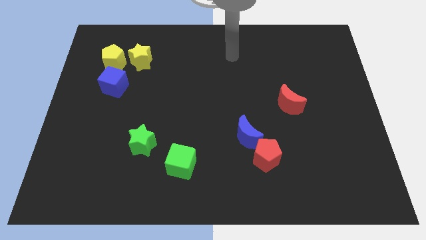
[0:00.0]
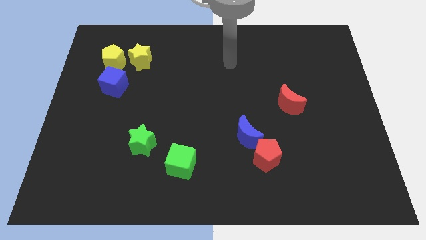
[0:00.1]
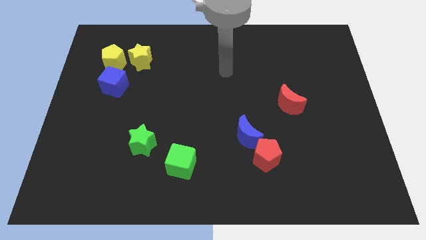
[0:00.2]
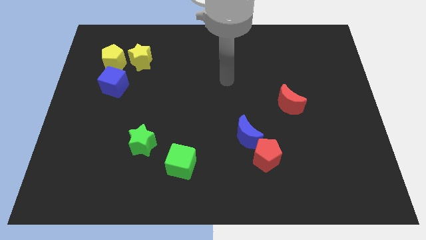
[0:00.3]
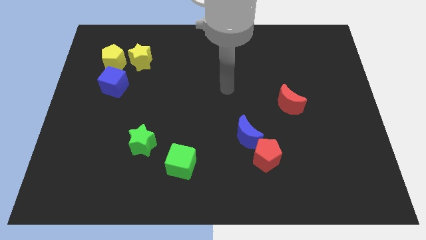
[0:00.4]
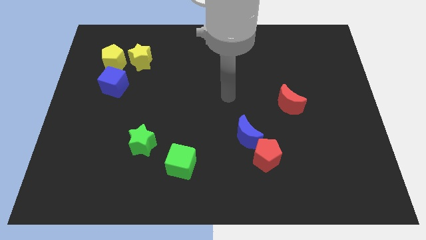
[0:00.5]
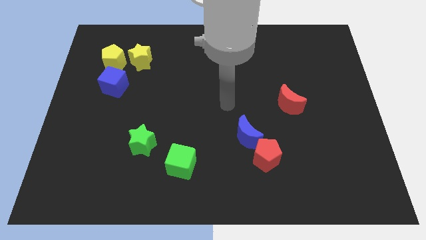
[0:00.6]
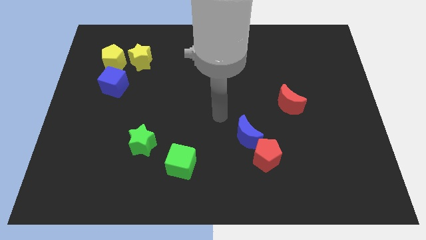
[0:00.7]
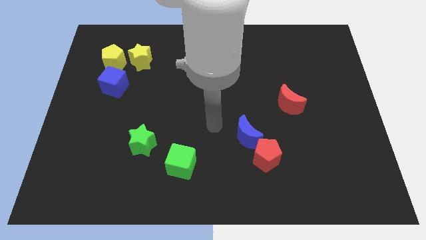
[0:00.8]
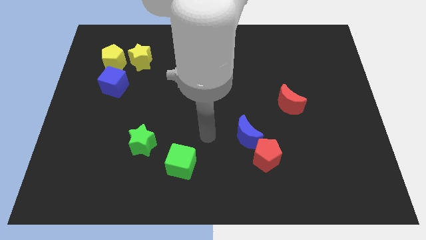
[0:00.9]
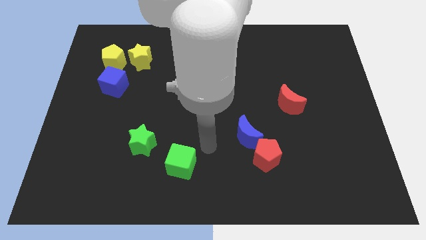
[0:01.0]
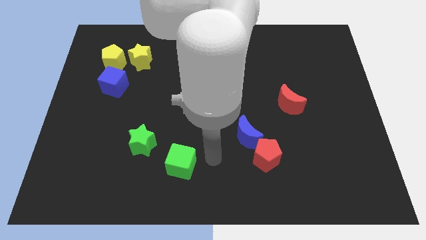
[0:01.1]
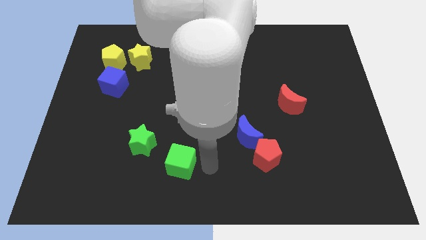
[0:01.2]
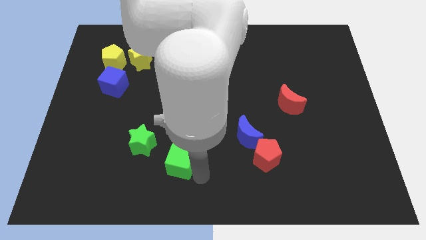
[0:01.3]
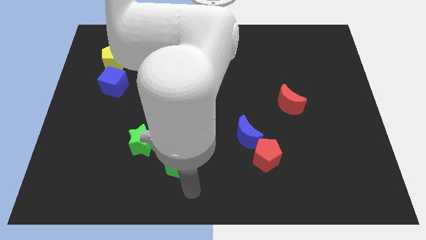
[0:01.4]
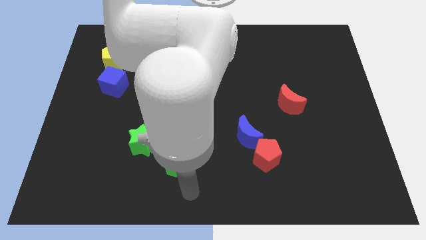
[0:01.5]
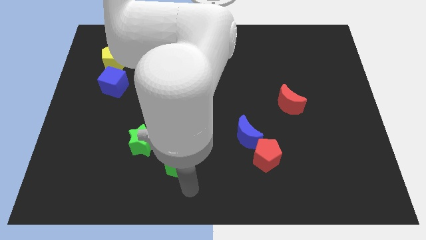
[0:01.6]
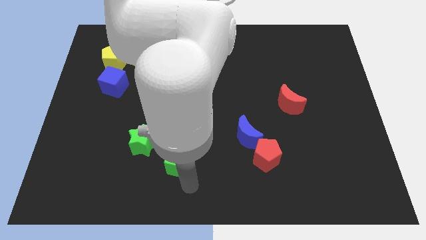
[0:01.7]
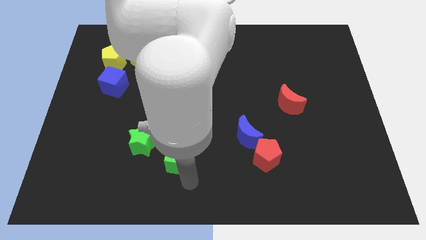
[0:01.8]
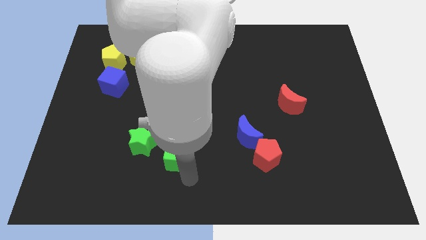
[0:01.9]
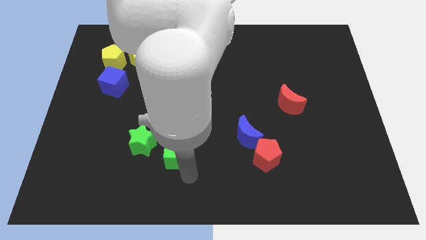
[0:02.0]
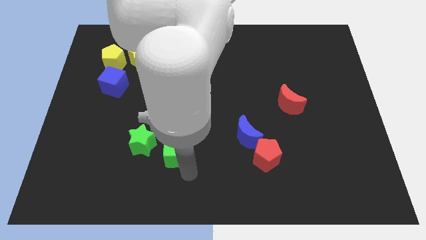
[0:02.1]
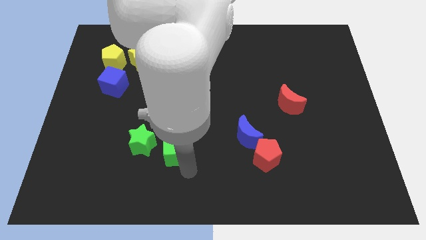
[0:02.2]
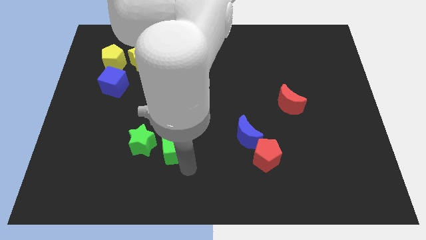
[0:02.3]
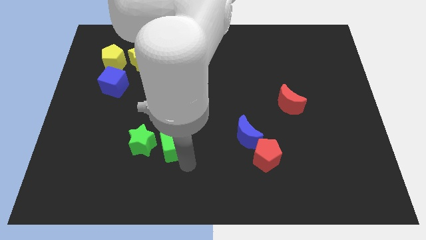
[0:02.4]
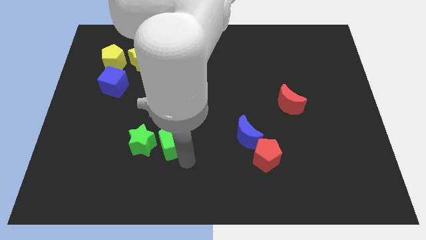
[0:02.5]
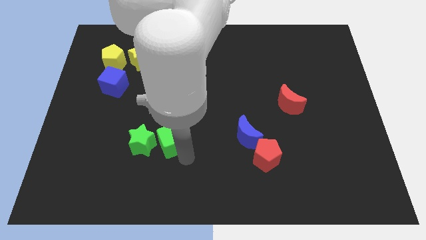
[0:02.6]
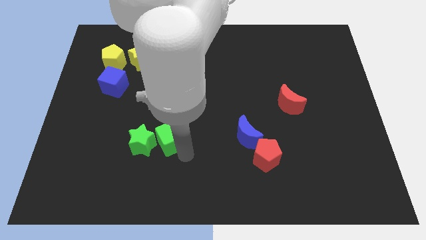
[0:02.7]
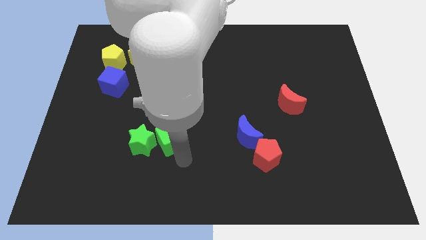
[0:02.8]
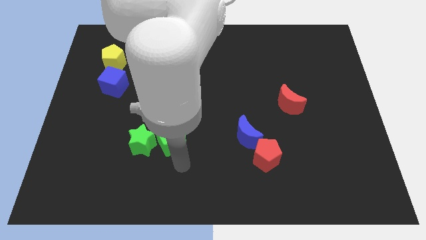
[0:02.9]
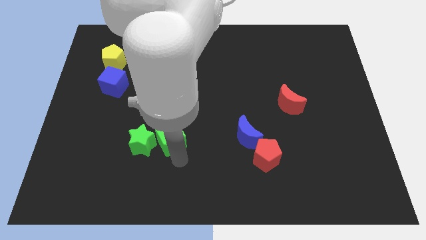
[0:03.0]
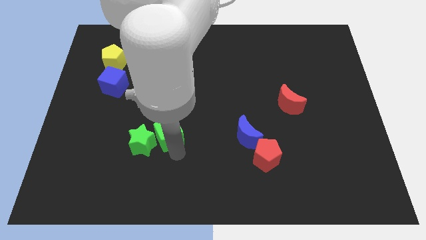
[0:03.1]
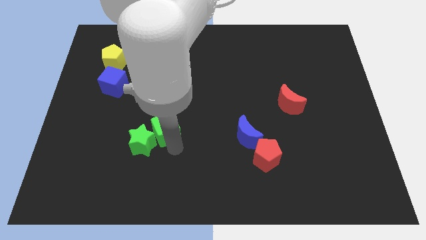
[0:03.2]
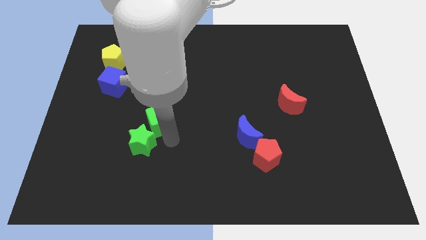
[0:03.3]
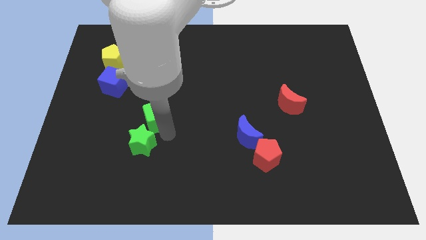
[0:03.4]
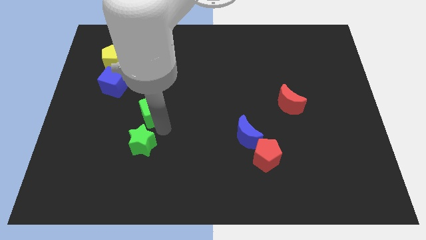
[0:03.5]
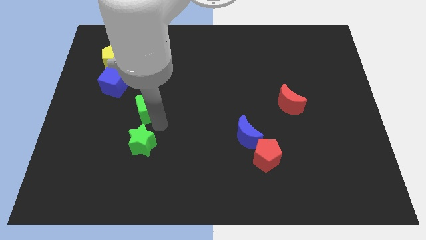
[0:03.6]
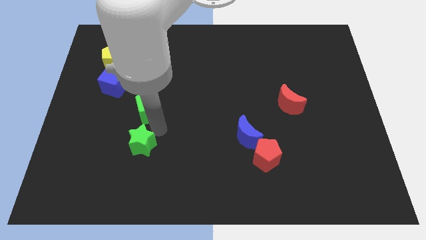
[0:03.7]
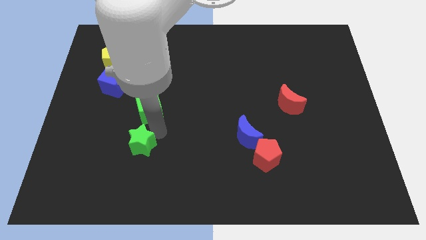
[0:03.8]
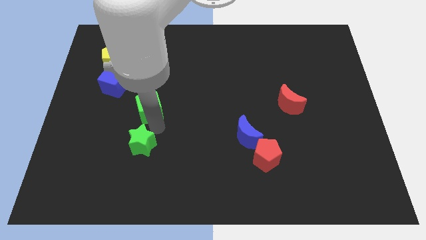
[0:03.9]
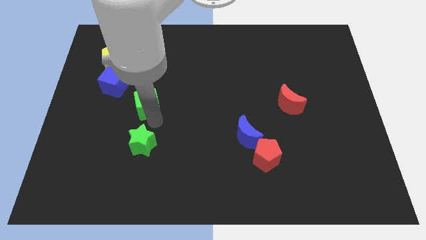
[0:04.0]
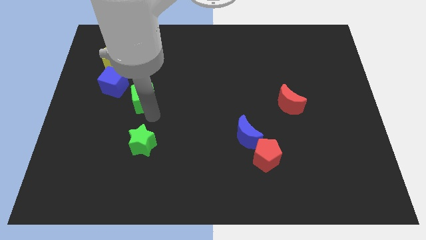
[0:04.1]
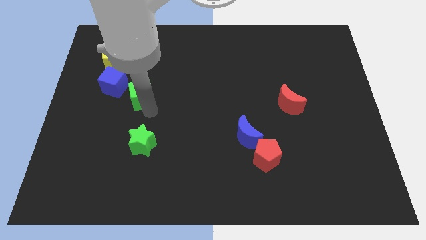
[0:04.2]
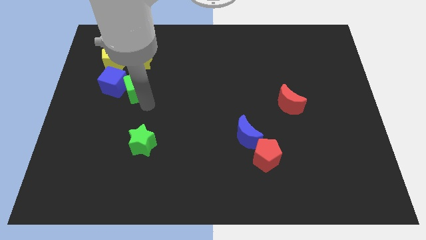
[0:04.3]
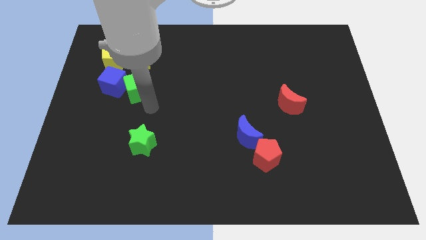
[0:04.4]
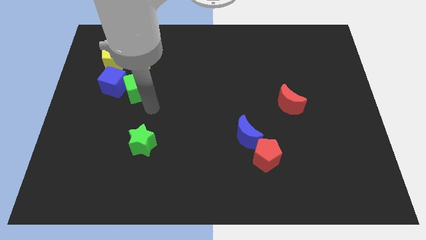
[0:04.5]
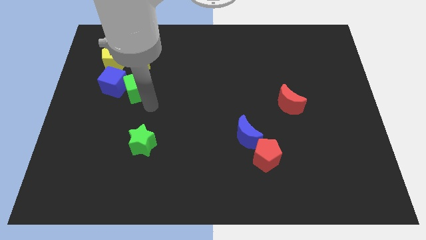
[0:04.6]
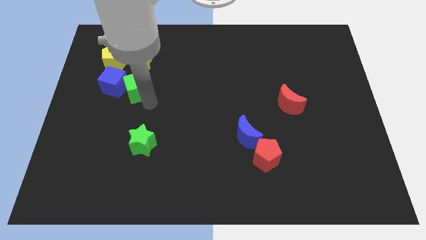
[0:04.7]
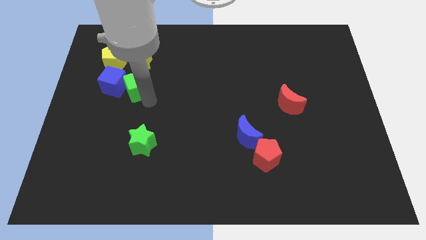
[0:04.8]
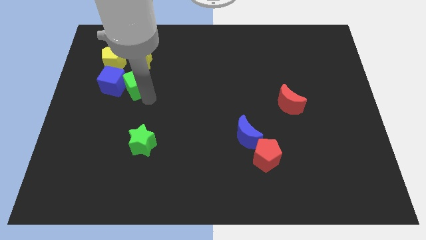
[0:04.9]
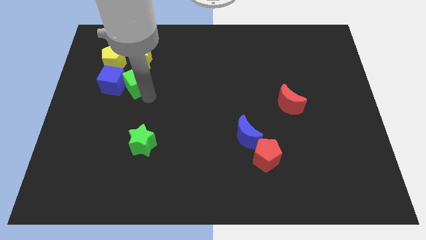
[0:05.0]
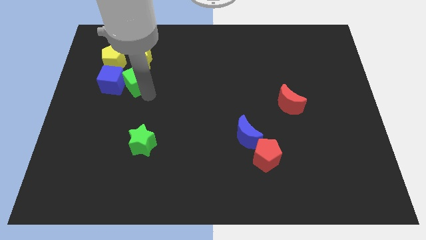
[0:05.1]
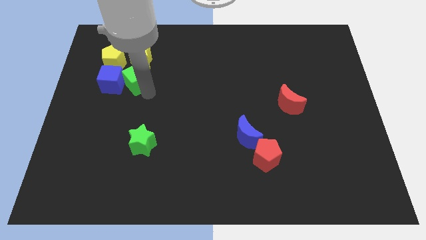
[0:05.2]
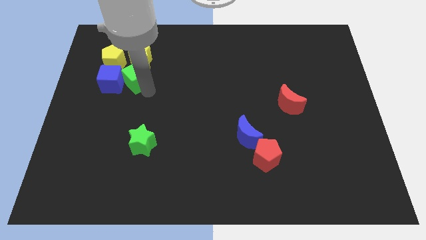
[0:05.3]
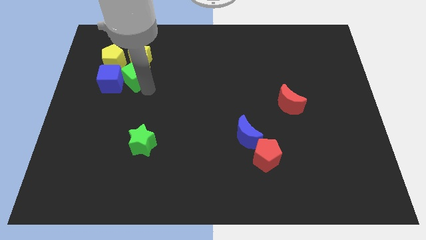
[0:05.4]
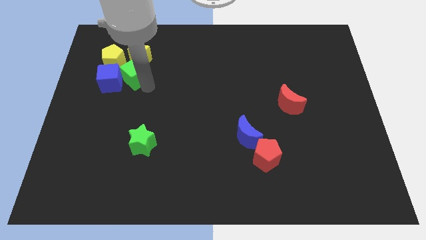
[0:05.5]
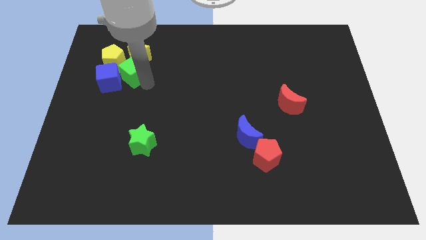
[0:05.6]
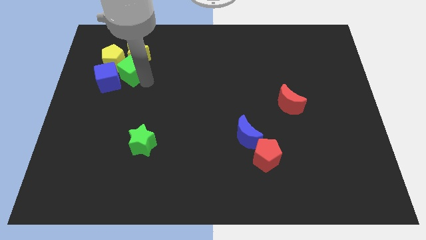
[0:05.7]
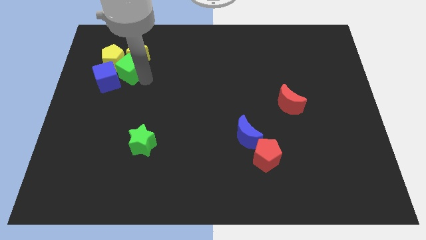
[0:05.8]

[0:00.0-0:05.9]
push the green cube towards the yellow pentagon
